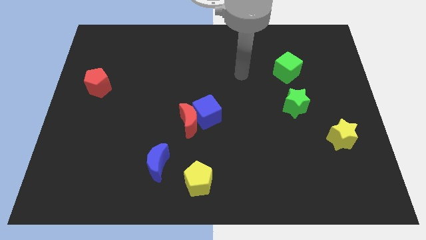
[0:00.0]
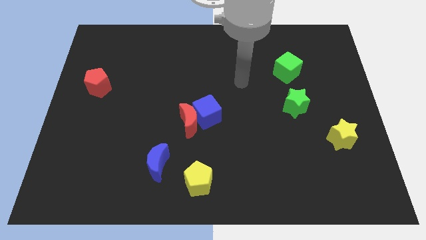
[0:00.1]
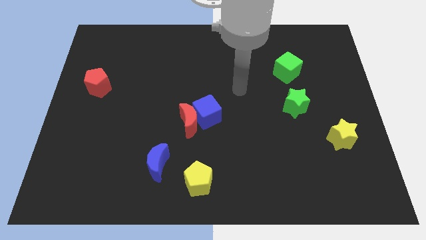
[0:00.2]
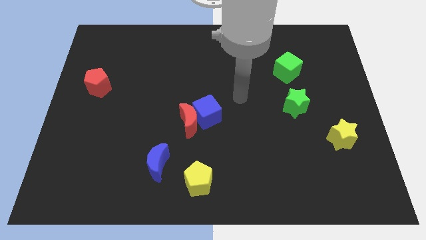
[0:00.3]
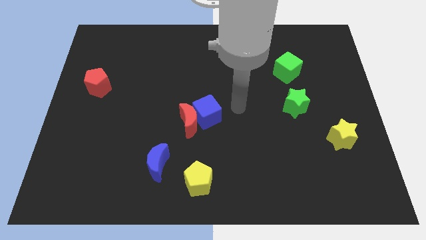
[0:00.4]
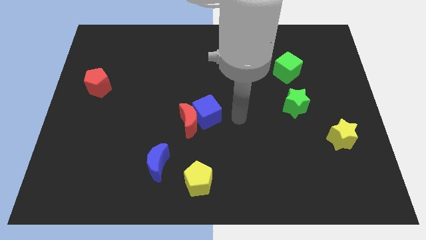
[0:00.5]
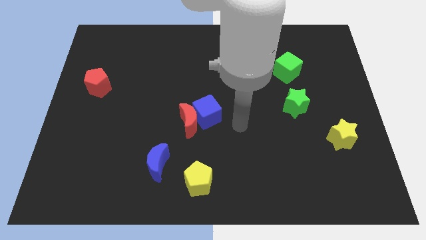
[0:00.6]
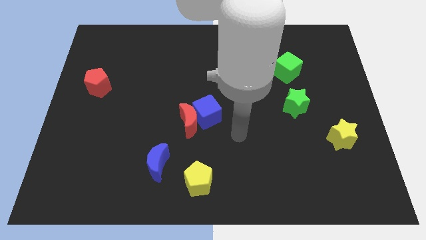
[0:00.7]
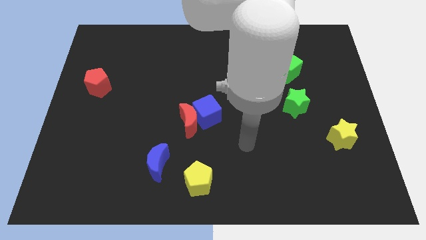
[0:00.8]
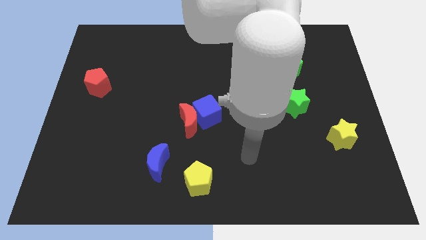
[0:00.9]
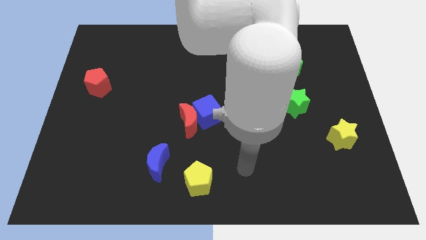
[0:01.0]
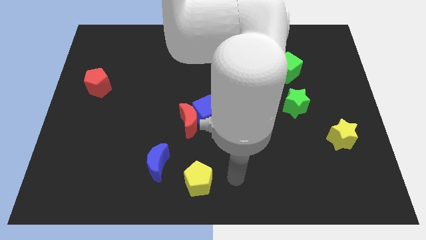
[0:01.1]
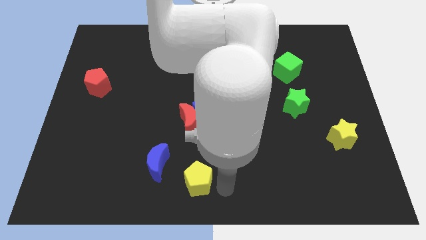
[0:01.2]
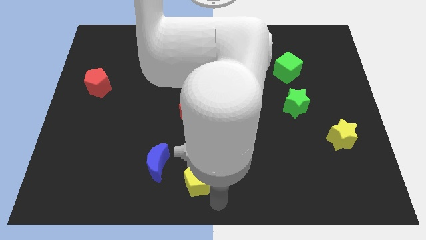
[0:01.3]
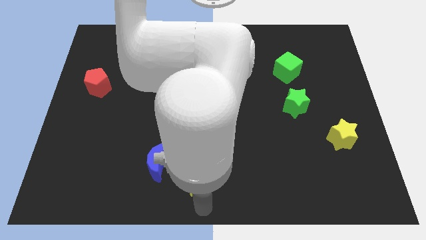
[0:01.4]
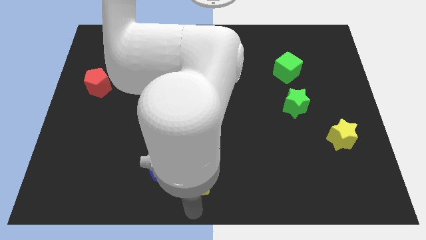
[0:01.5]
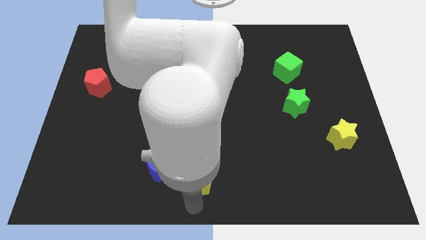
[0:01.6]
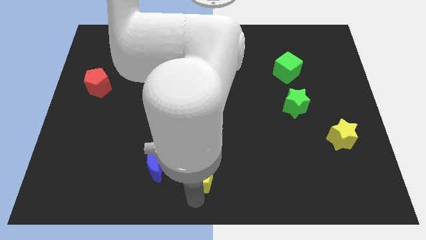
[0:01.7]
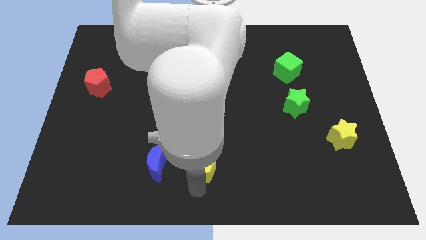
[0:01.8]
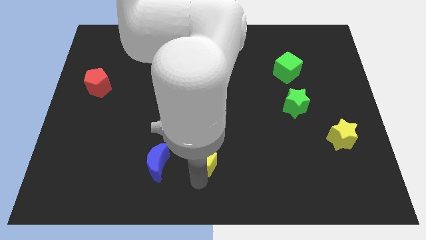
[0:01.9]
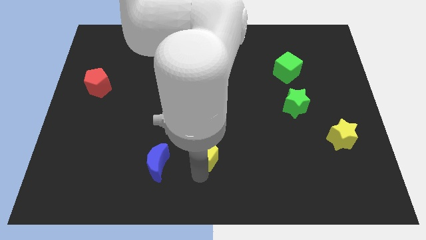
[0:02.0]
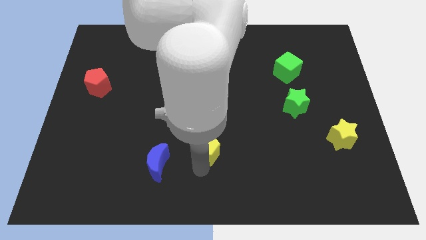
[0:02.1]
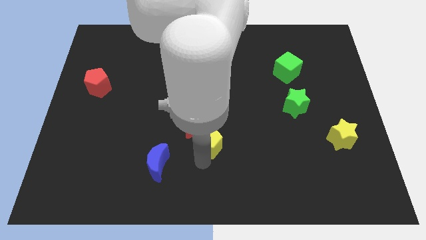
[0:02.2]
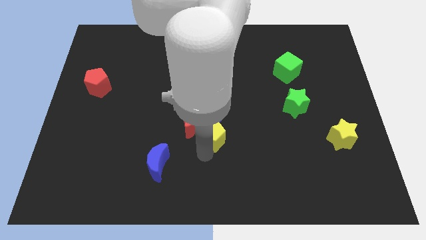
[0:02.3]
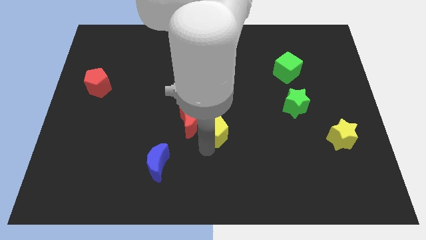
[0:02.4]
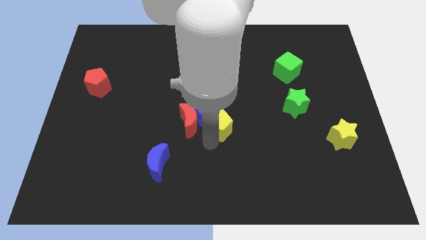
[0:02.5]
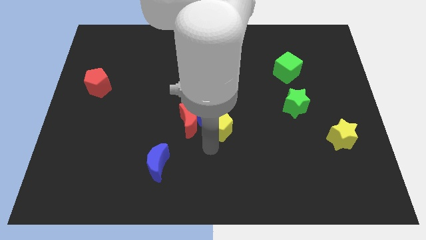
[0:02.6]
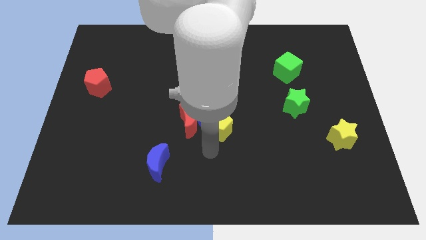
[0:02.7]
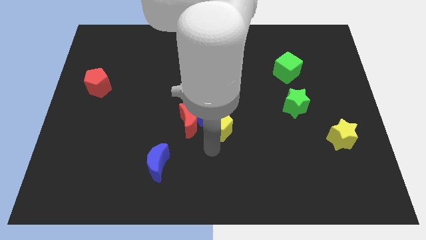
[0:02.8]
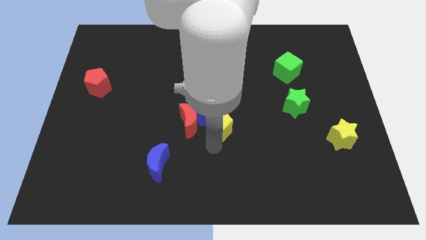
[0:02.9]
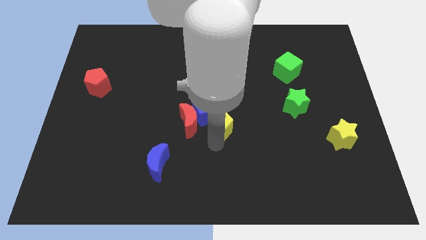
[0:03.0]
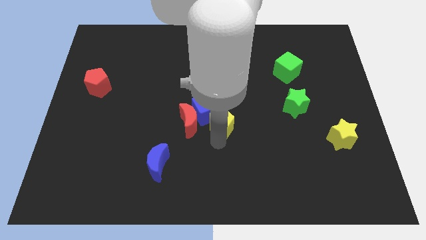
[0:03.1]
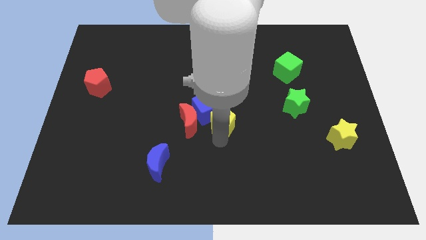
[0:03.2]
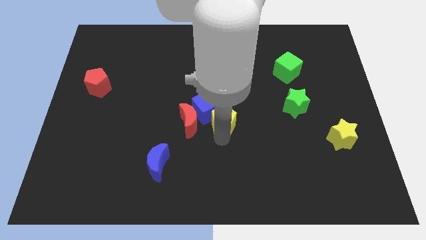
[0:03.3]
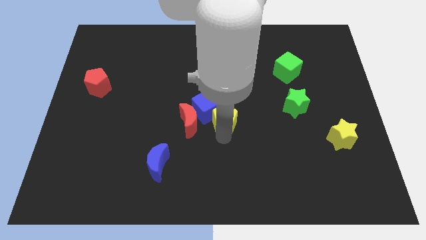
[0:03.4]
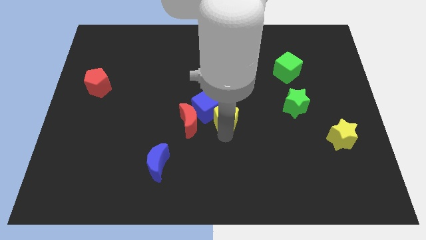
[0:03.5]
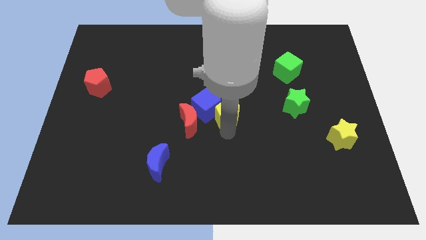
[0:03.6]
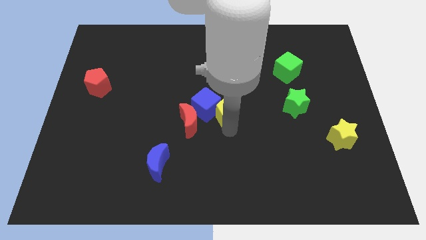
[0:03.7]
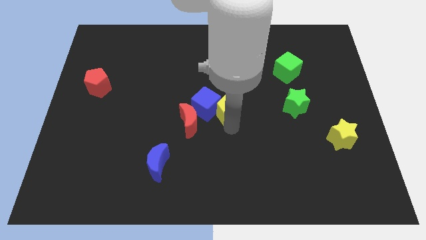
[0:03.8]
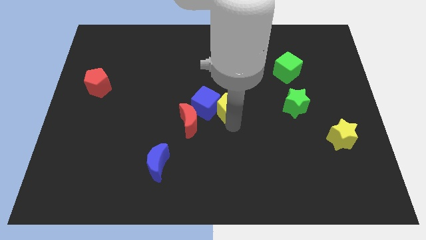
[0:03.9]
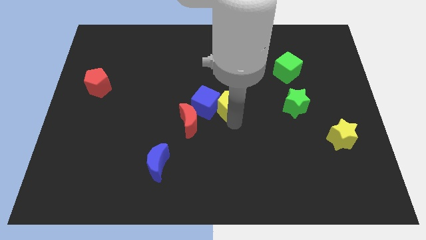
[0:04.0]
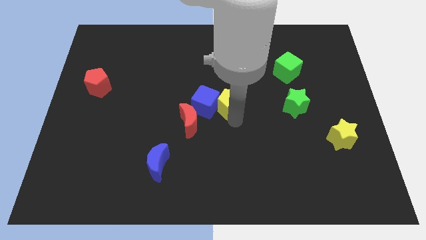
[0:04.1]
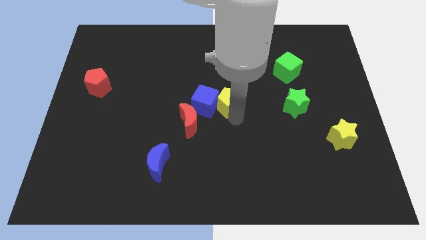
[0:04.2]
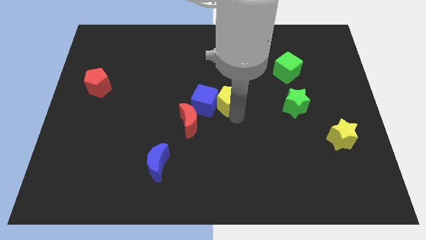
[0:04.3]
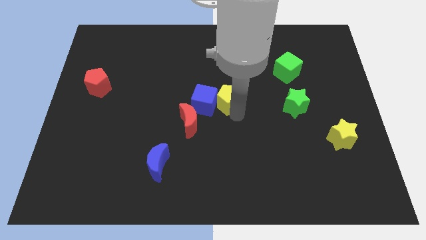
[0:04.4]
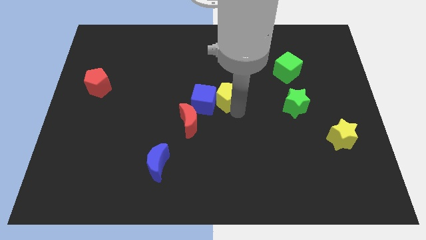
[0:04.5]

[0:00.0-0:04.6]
move the yellow pentagon upwards

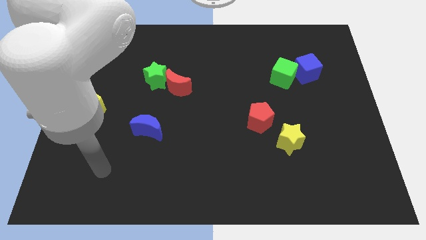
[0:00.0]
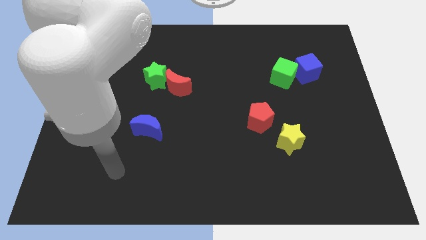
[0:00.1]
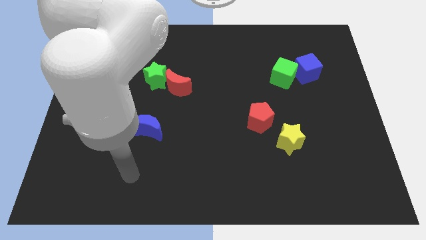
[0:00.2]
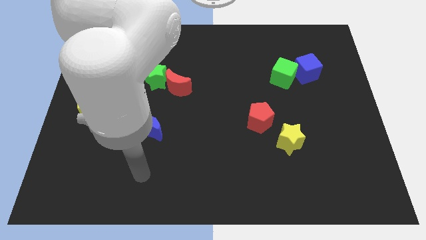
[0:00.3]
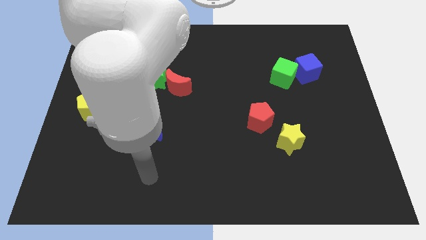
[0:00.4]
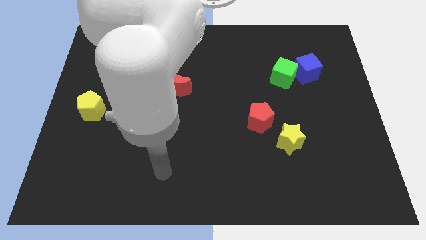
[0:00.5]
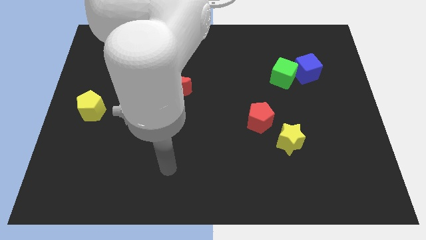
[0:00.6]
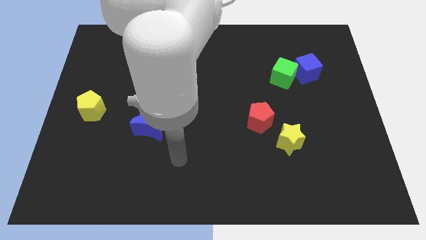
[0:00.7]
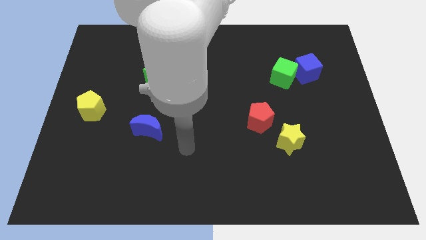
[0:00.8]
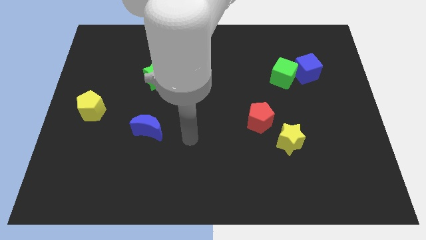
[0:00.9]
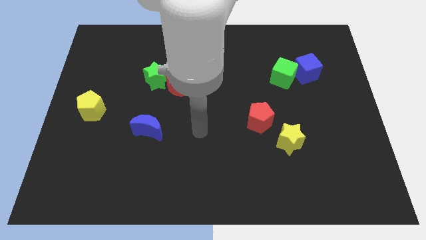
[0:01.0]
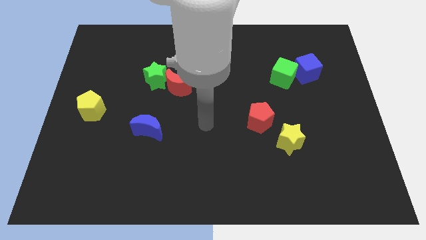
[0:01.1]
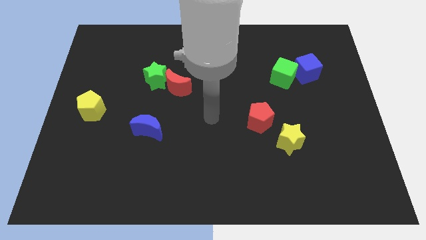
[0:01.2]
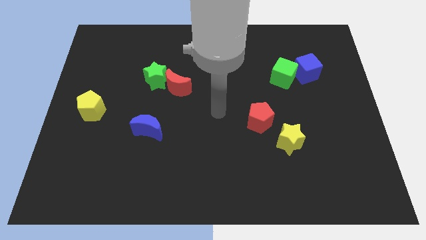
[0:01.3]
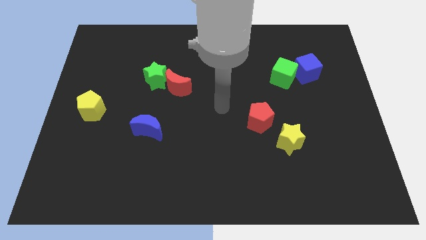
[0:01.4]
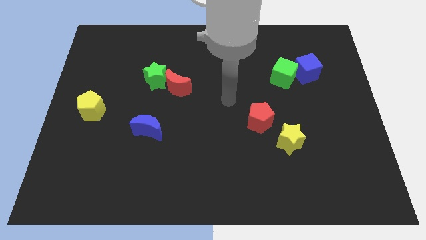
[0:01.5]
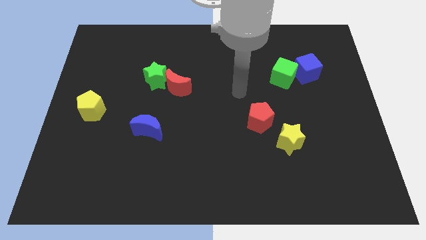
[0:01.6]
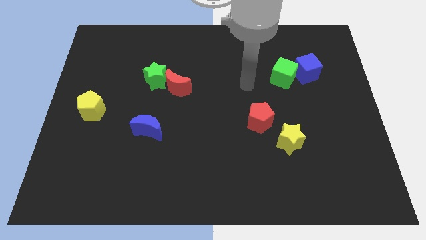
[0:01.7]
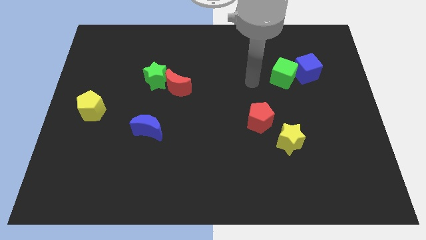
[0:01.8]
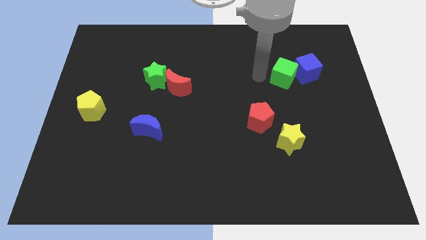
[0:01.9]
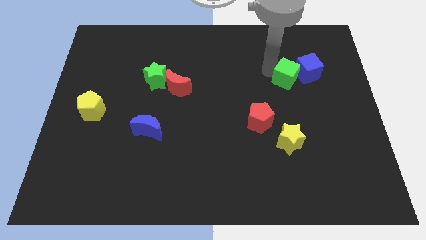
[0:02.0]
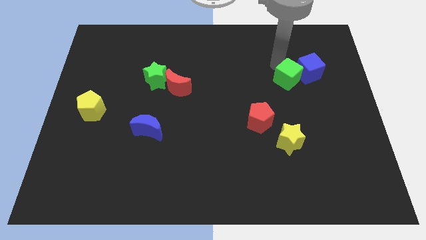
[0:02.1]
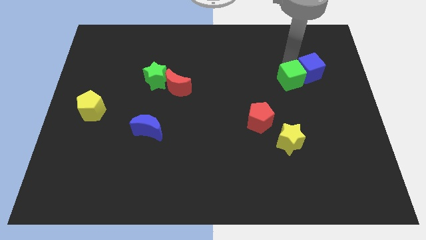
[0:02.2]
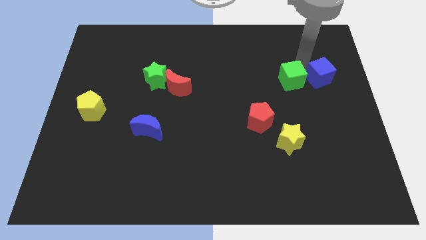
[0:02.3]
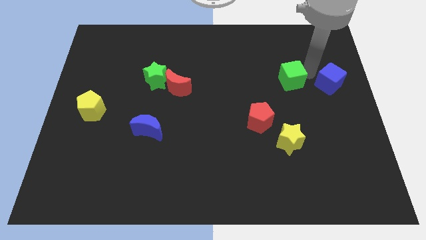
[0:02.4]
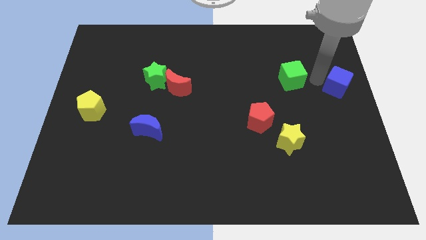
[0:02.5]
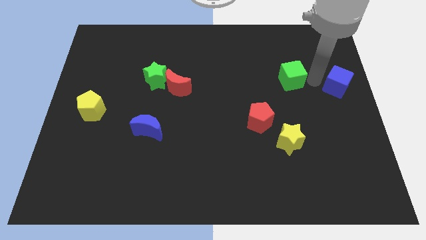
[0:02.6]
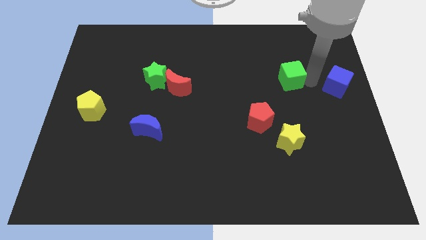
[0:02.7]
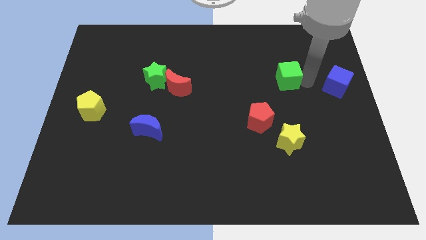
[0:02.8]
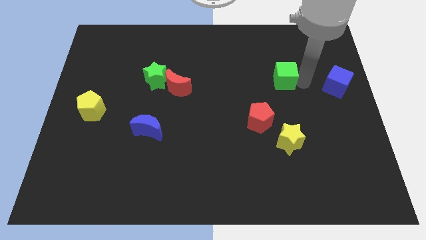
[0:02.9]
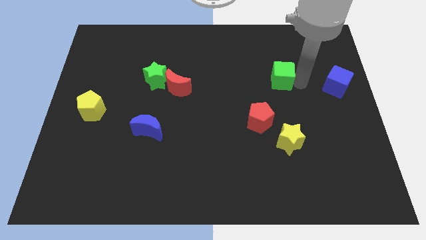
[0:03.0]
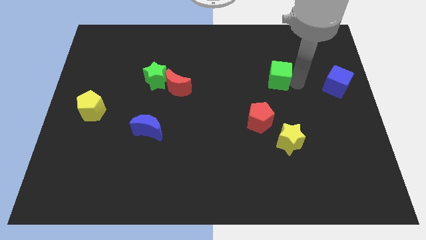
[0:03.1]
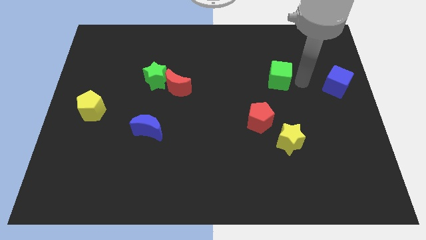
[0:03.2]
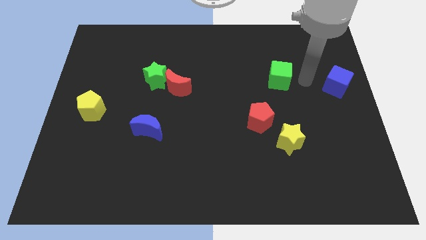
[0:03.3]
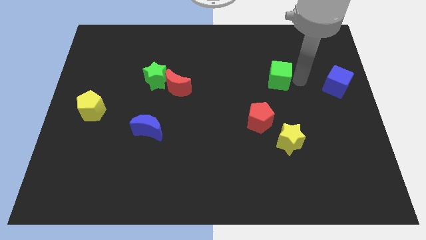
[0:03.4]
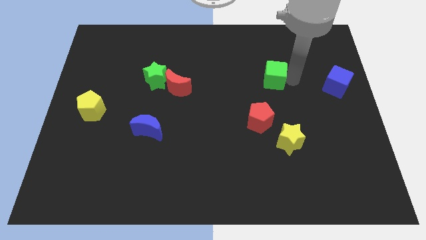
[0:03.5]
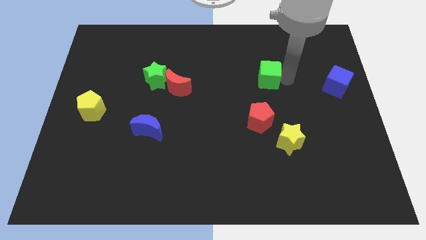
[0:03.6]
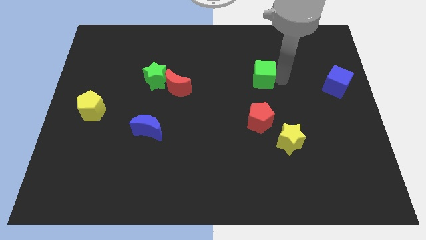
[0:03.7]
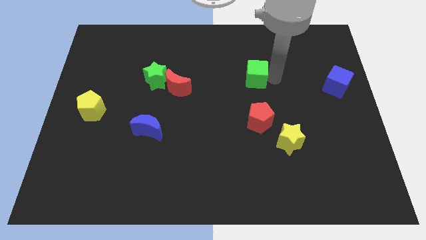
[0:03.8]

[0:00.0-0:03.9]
move the green cube left a little
